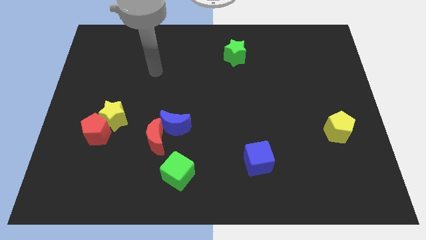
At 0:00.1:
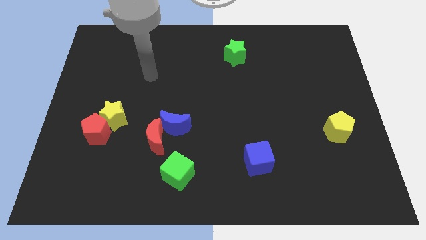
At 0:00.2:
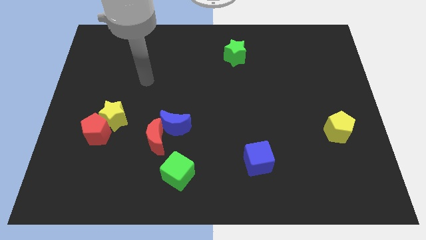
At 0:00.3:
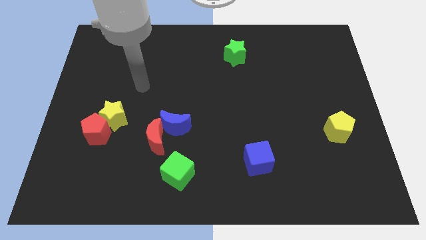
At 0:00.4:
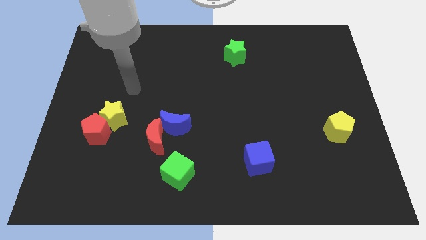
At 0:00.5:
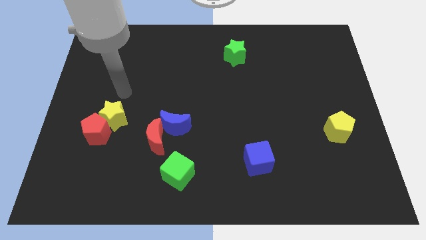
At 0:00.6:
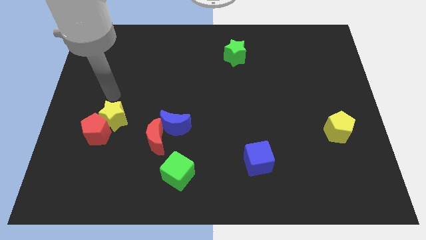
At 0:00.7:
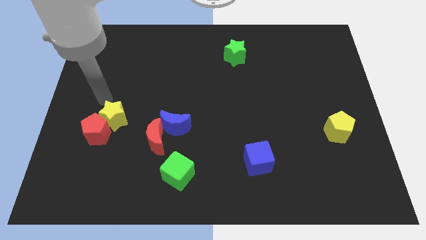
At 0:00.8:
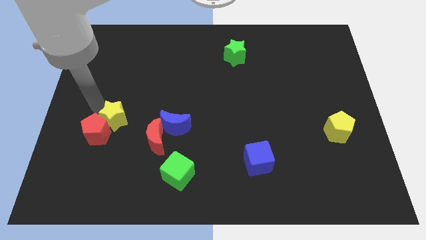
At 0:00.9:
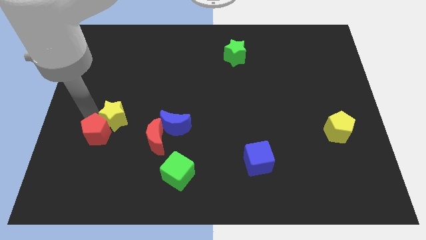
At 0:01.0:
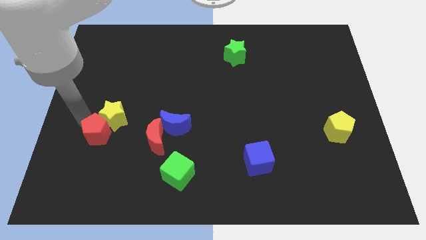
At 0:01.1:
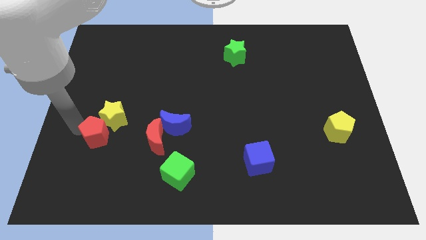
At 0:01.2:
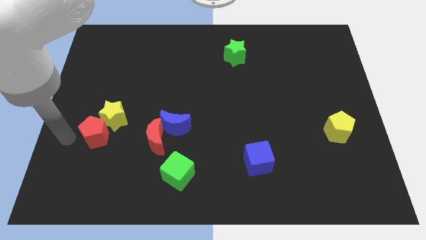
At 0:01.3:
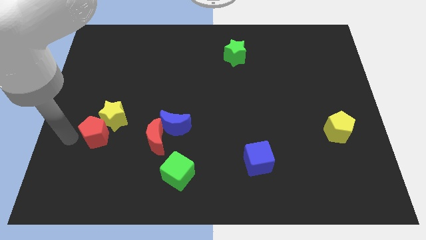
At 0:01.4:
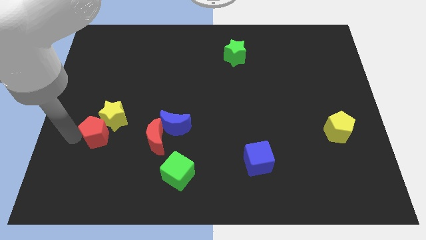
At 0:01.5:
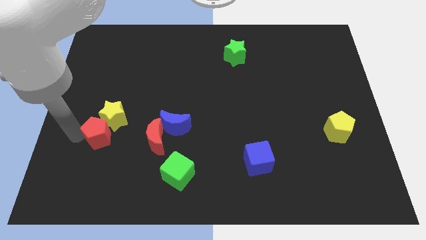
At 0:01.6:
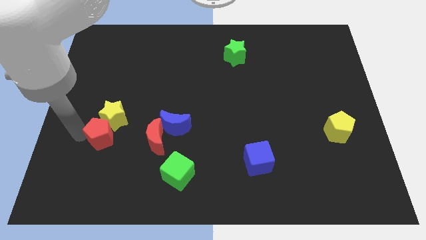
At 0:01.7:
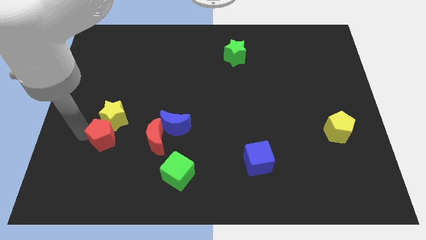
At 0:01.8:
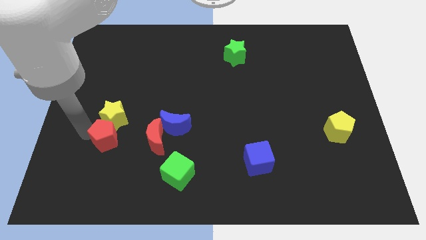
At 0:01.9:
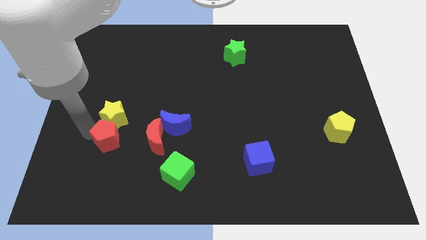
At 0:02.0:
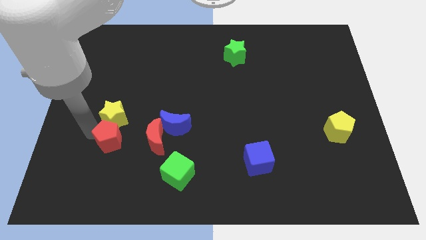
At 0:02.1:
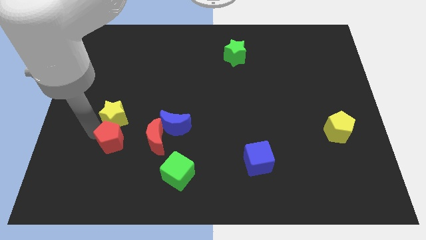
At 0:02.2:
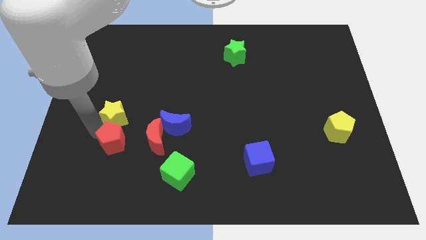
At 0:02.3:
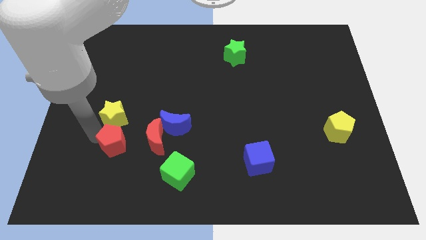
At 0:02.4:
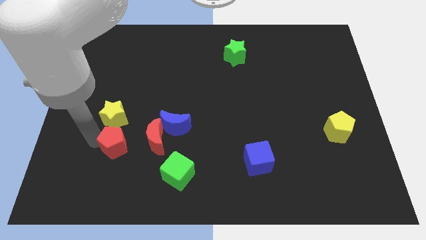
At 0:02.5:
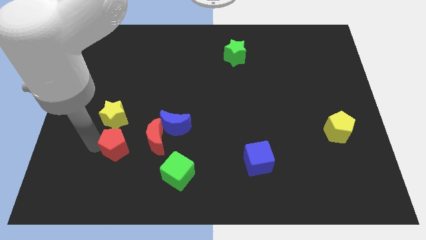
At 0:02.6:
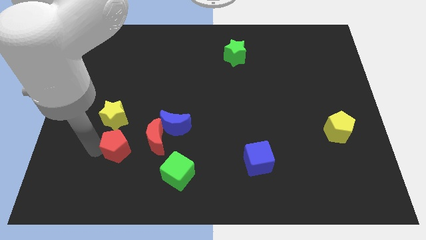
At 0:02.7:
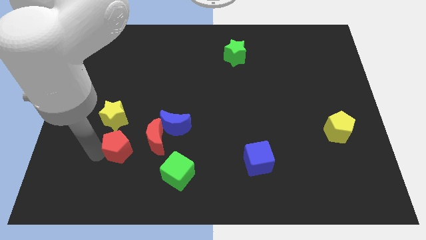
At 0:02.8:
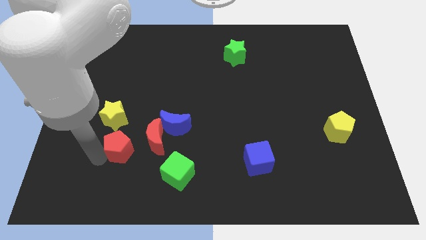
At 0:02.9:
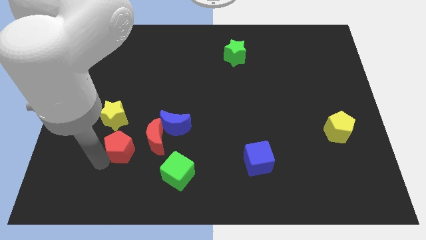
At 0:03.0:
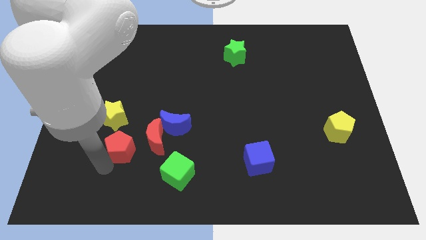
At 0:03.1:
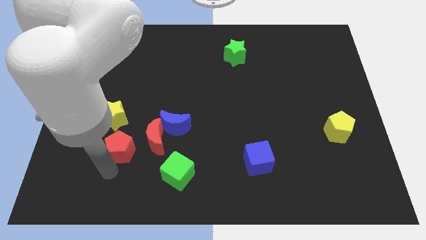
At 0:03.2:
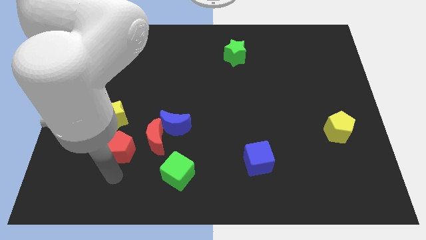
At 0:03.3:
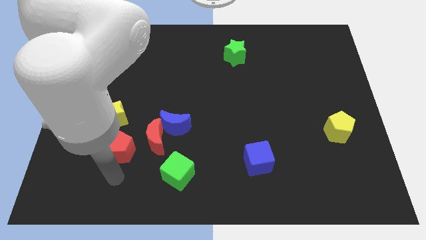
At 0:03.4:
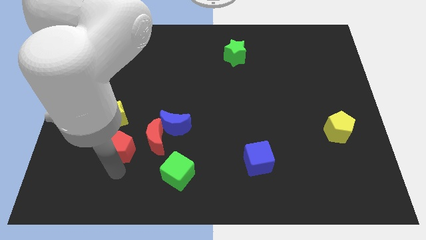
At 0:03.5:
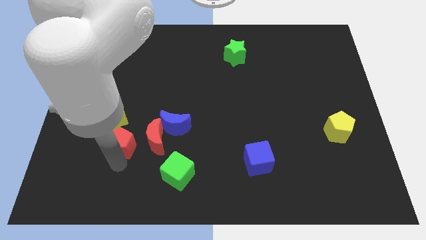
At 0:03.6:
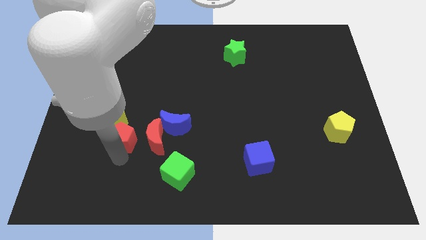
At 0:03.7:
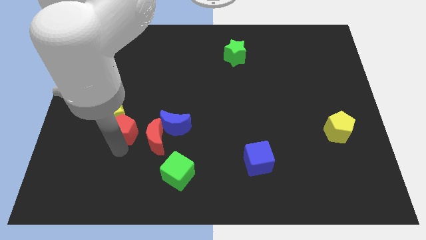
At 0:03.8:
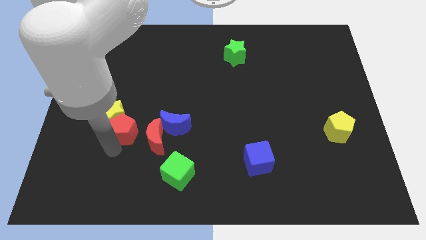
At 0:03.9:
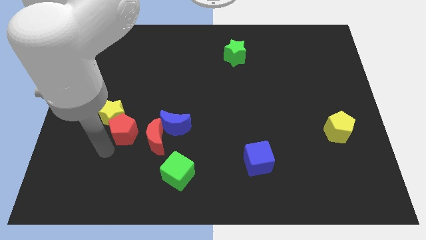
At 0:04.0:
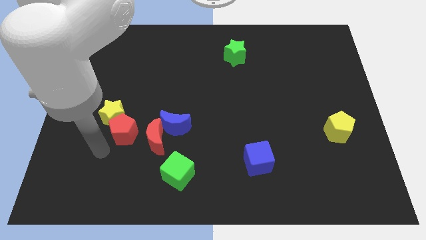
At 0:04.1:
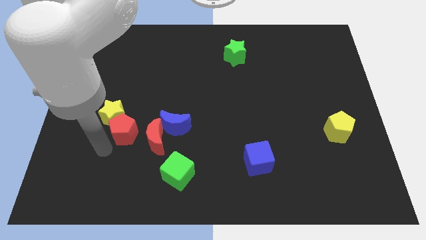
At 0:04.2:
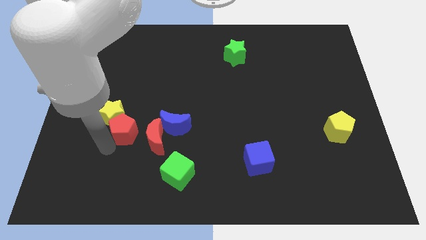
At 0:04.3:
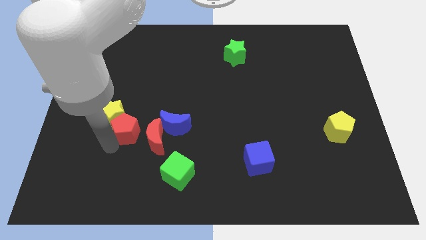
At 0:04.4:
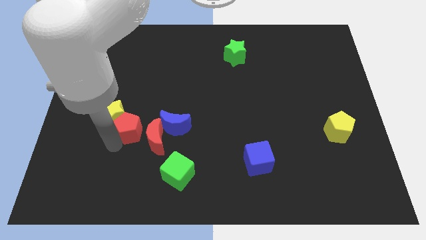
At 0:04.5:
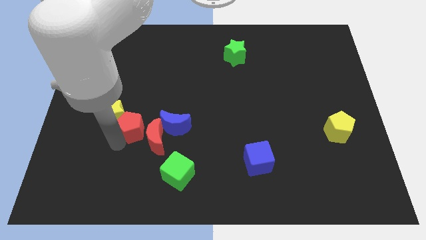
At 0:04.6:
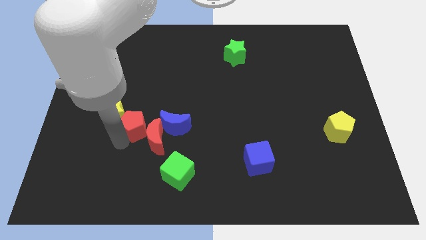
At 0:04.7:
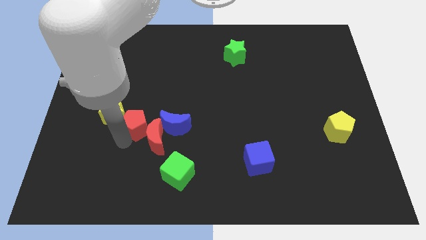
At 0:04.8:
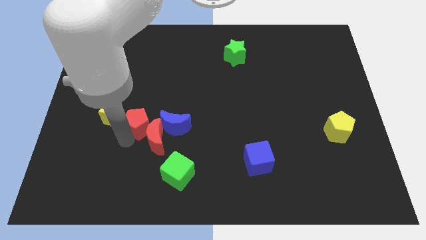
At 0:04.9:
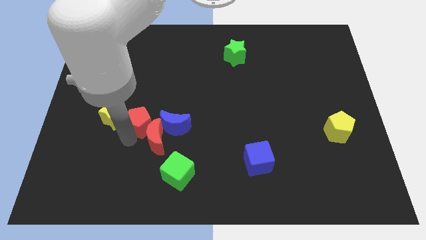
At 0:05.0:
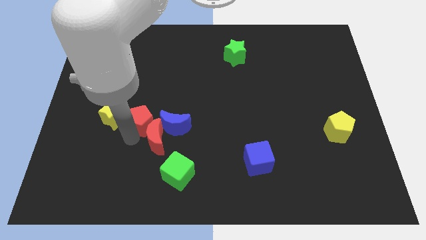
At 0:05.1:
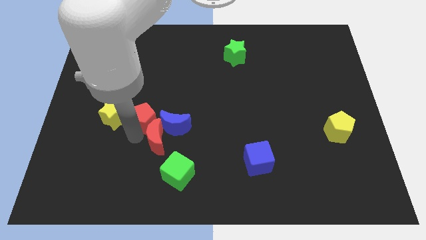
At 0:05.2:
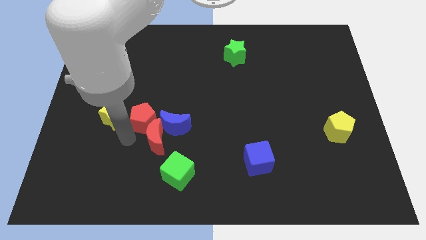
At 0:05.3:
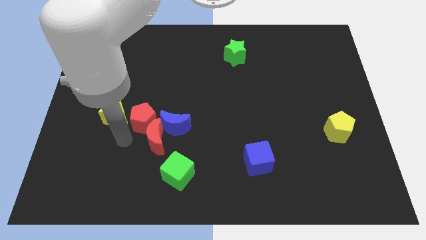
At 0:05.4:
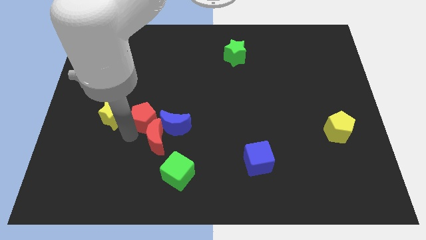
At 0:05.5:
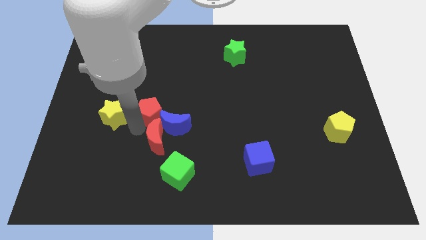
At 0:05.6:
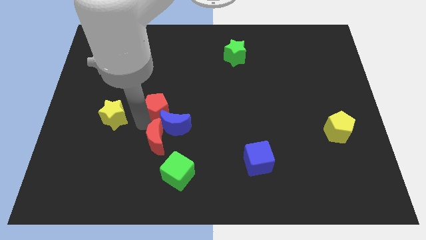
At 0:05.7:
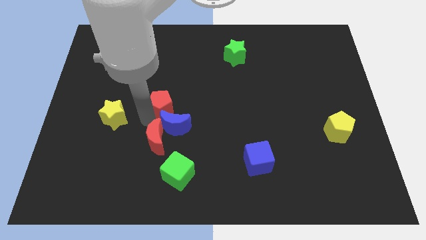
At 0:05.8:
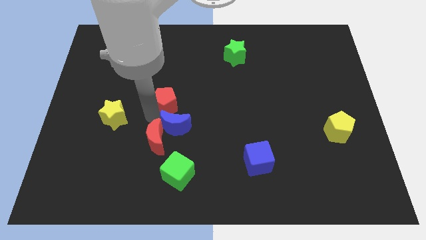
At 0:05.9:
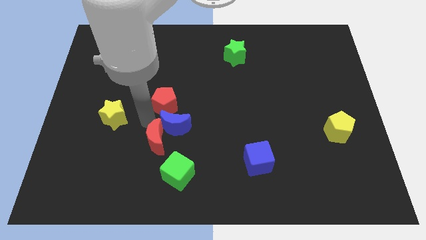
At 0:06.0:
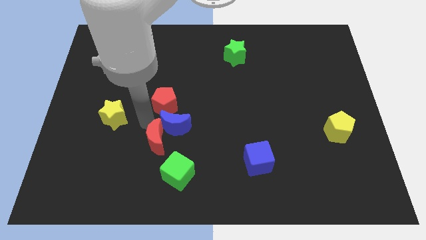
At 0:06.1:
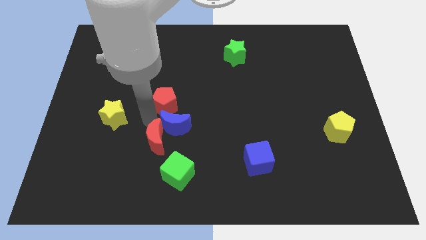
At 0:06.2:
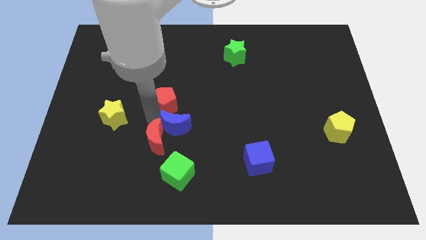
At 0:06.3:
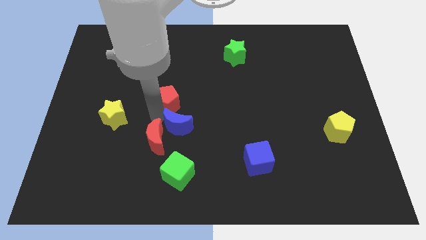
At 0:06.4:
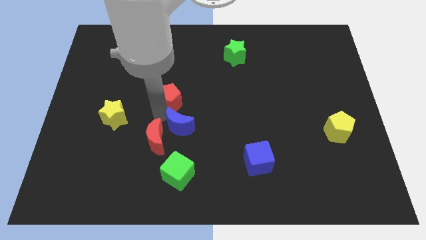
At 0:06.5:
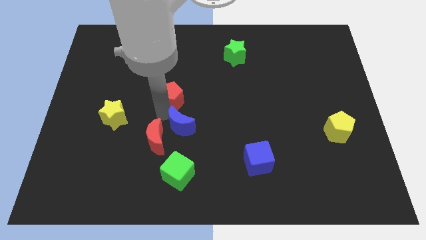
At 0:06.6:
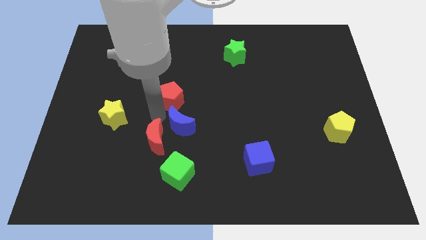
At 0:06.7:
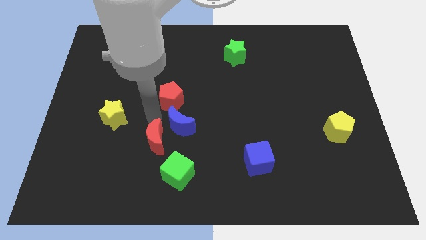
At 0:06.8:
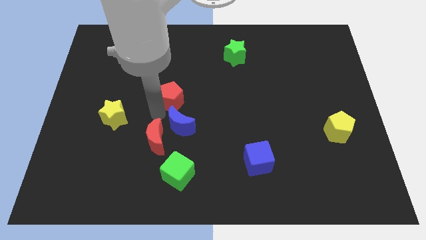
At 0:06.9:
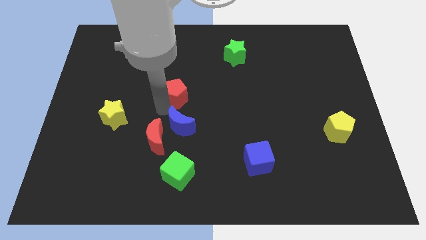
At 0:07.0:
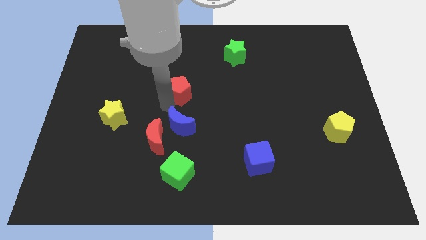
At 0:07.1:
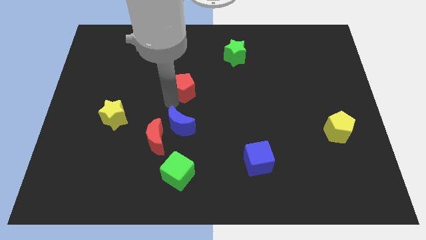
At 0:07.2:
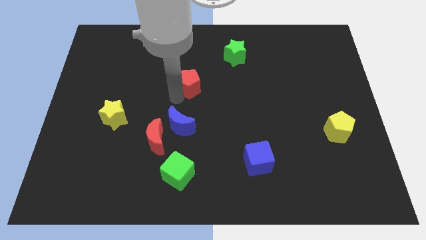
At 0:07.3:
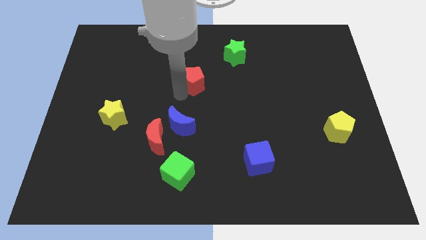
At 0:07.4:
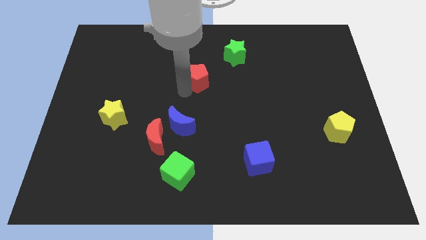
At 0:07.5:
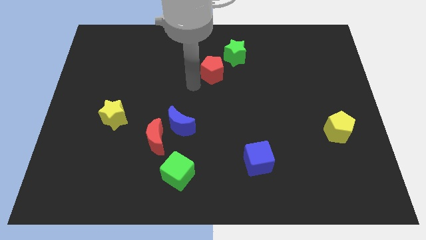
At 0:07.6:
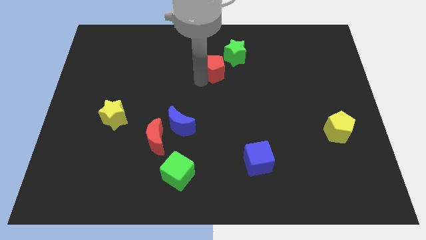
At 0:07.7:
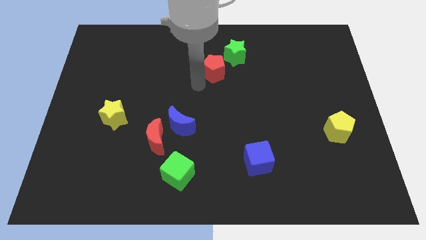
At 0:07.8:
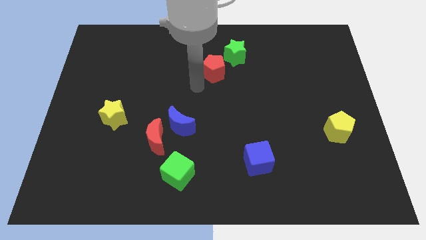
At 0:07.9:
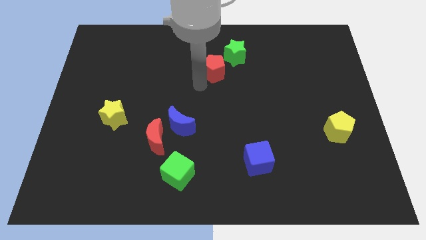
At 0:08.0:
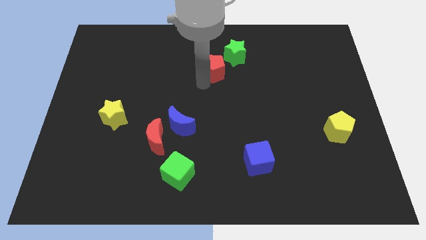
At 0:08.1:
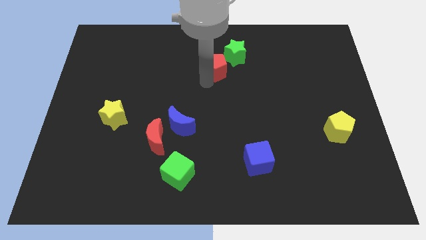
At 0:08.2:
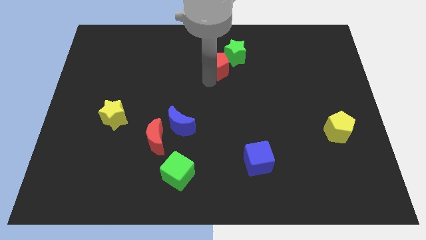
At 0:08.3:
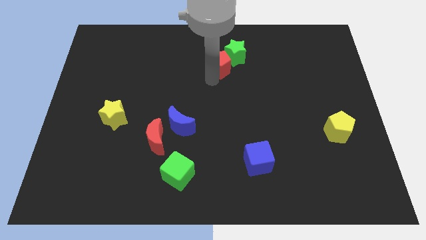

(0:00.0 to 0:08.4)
put the red pentagon next to the green star
